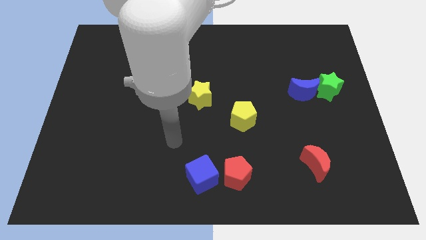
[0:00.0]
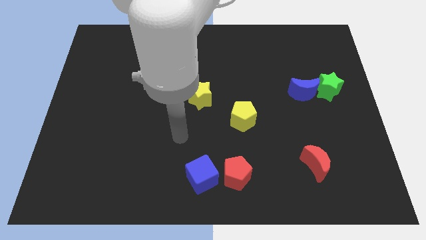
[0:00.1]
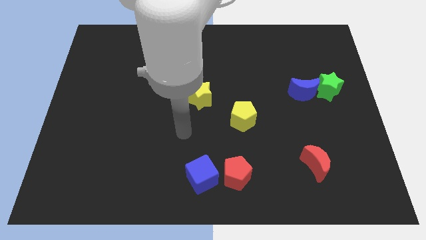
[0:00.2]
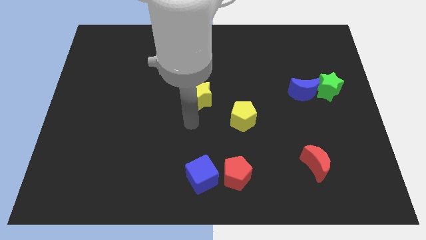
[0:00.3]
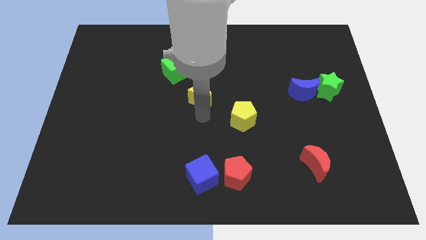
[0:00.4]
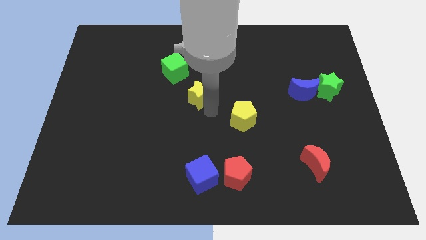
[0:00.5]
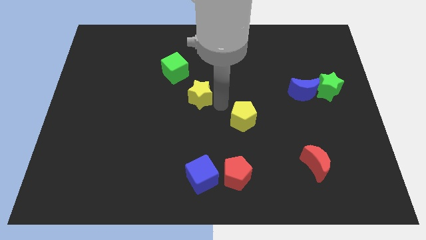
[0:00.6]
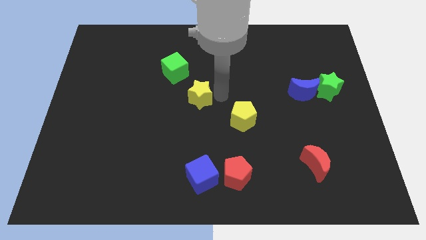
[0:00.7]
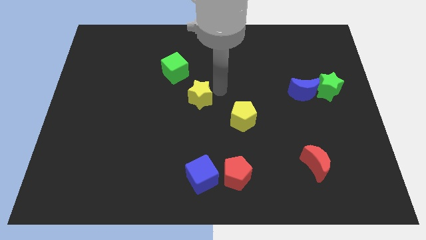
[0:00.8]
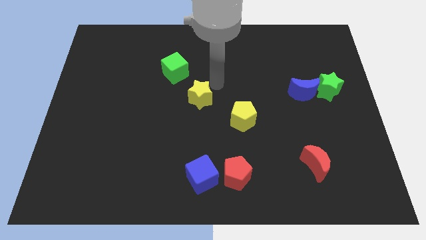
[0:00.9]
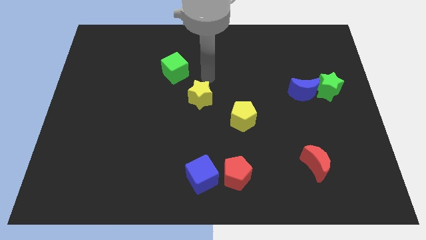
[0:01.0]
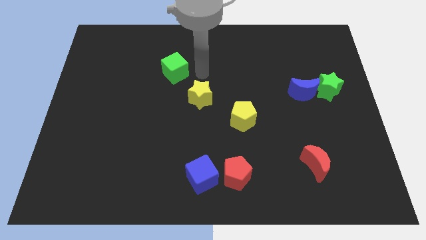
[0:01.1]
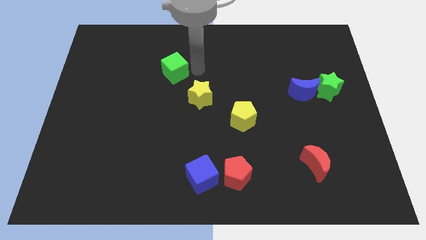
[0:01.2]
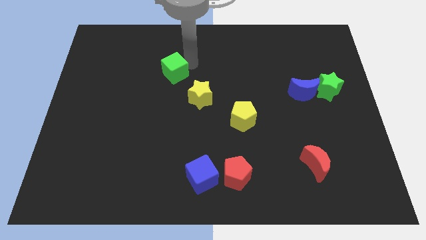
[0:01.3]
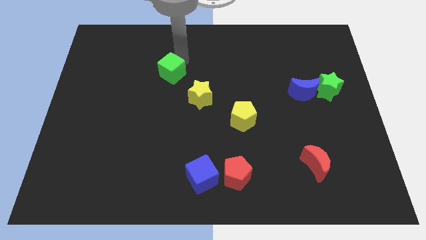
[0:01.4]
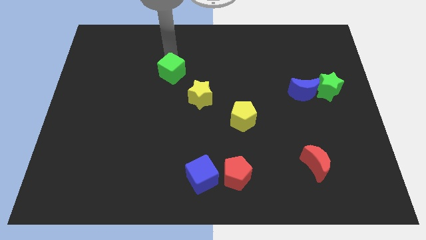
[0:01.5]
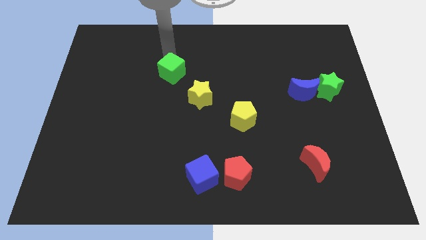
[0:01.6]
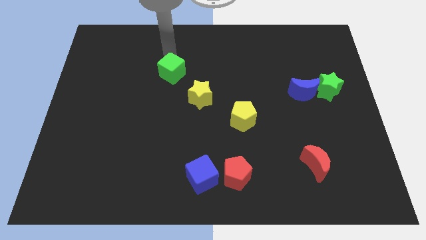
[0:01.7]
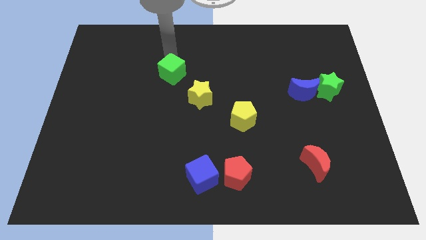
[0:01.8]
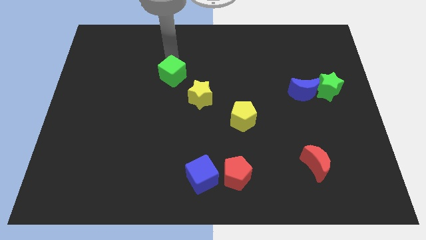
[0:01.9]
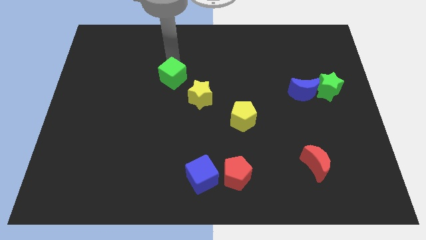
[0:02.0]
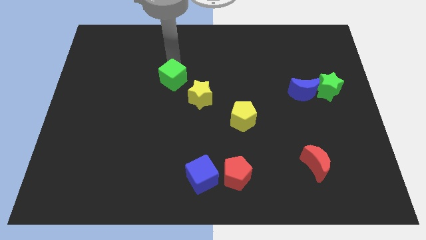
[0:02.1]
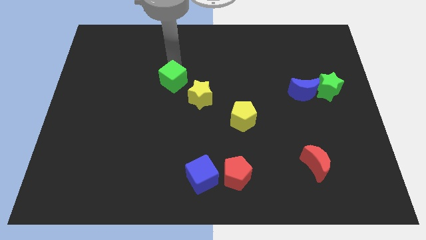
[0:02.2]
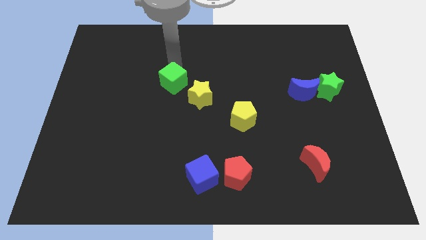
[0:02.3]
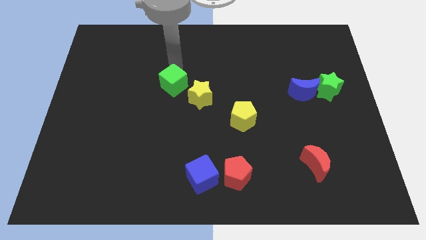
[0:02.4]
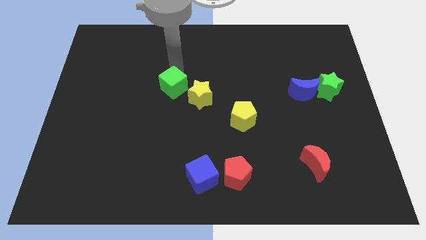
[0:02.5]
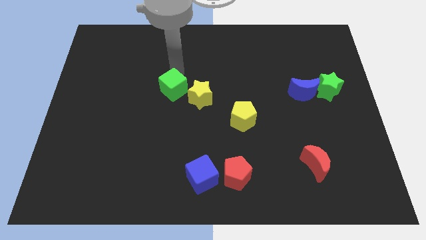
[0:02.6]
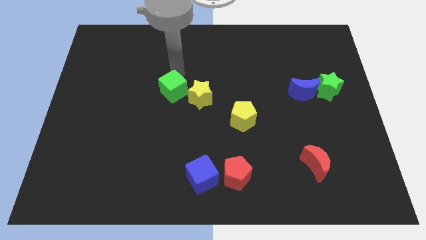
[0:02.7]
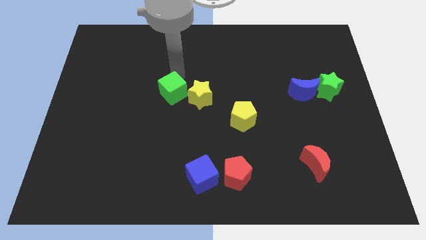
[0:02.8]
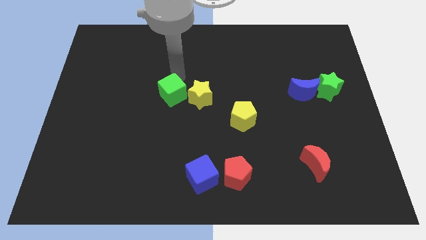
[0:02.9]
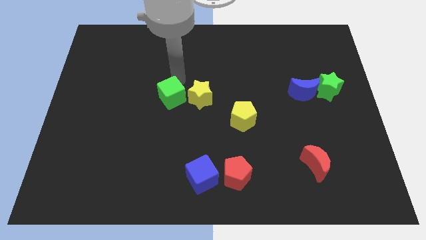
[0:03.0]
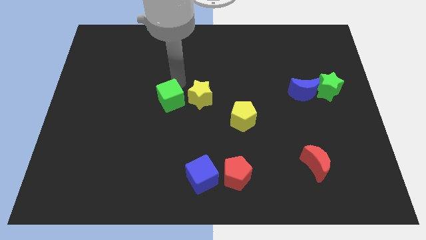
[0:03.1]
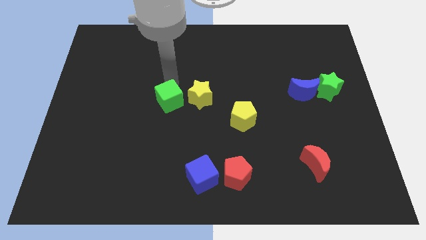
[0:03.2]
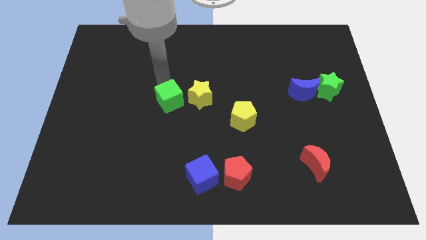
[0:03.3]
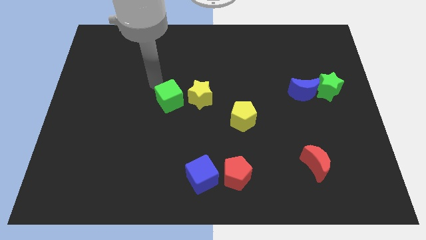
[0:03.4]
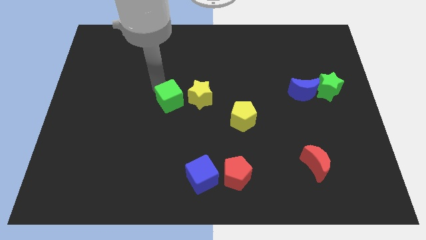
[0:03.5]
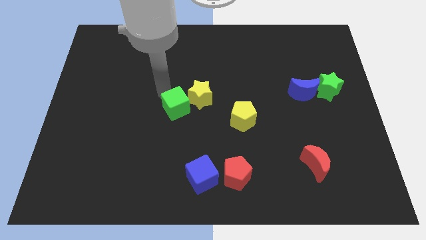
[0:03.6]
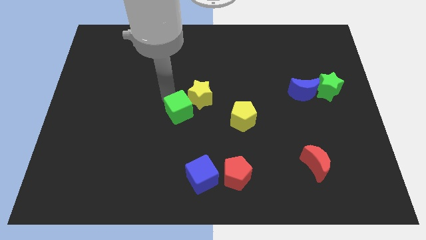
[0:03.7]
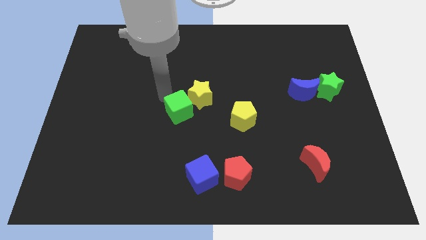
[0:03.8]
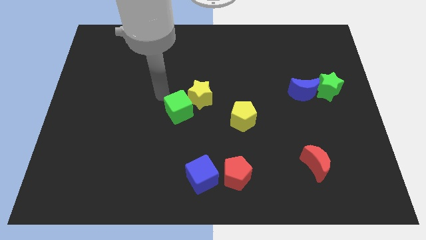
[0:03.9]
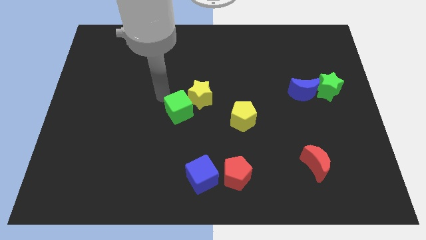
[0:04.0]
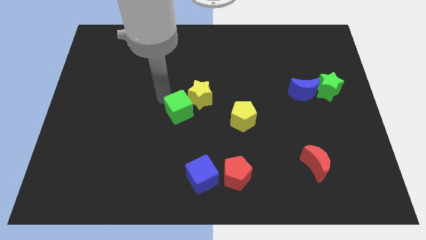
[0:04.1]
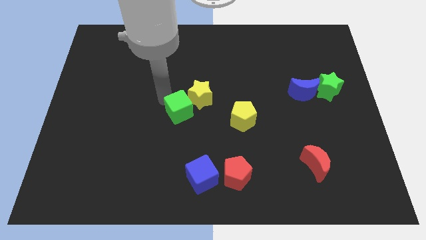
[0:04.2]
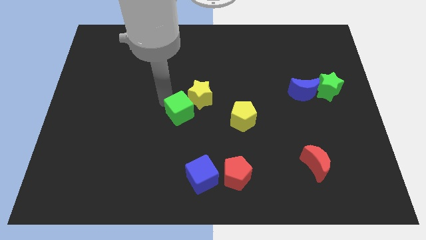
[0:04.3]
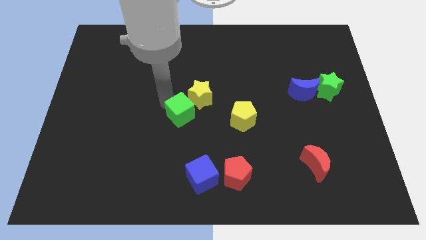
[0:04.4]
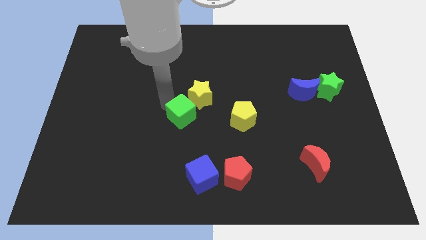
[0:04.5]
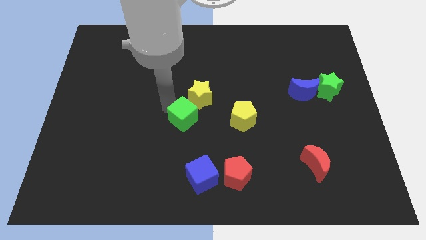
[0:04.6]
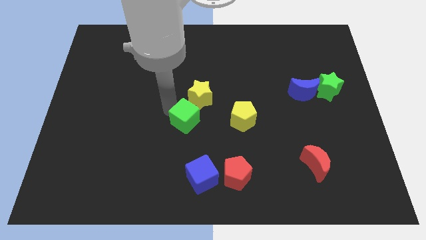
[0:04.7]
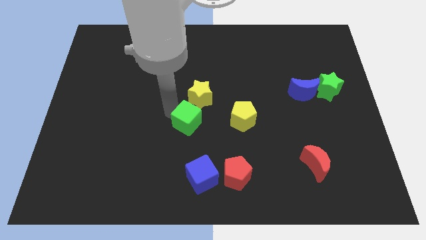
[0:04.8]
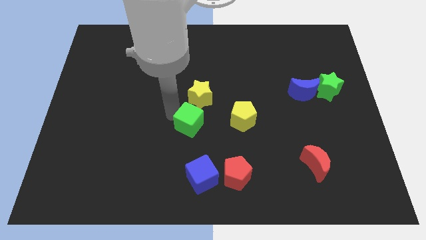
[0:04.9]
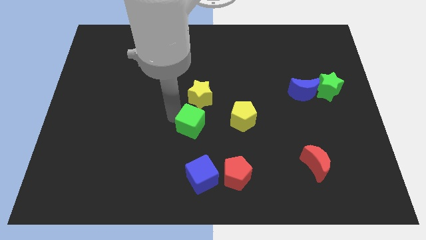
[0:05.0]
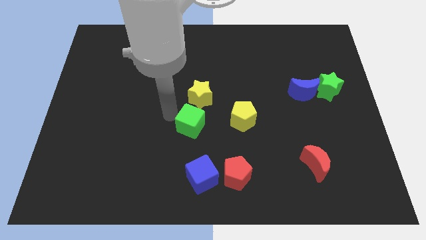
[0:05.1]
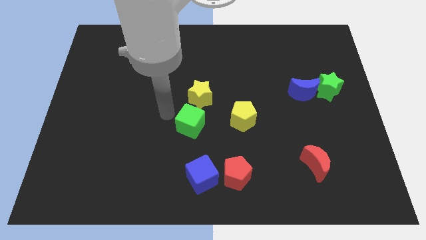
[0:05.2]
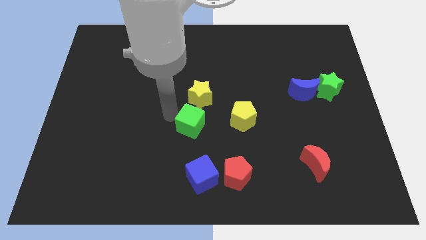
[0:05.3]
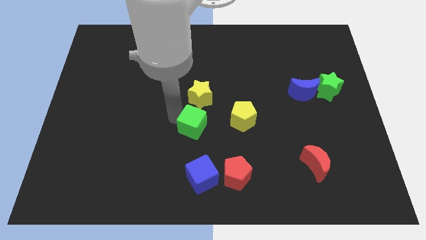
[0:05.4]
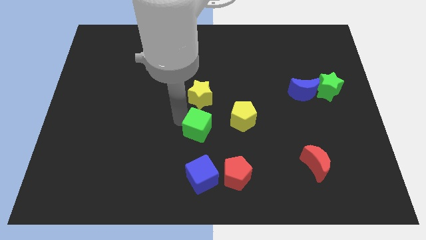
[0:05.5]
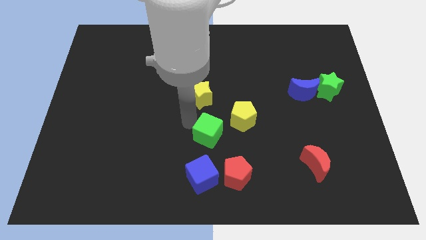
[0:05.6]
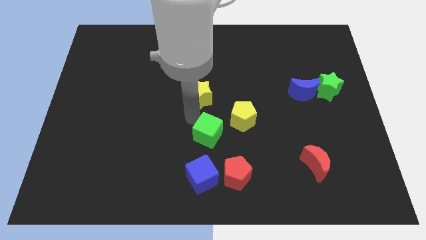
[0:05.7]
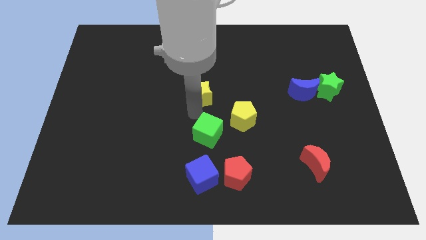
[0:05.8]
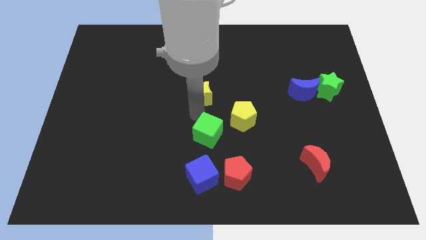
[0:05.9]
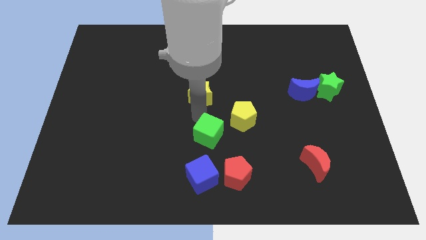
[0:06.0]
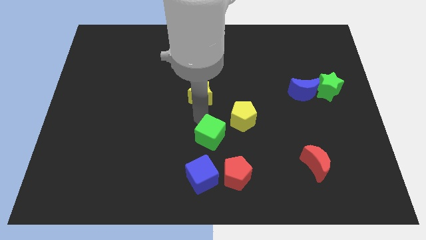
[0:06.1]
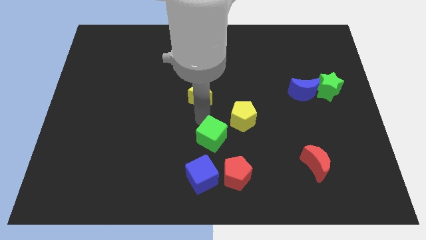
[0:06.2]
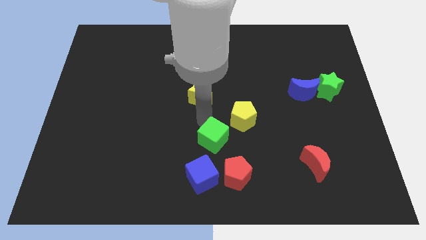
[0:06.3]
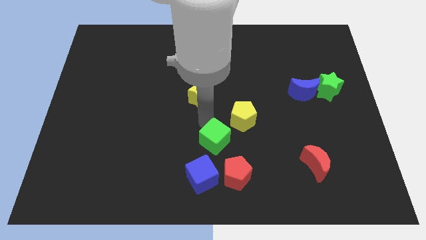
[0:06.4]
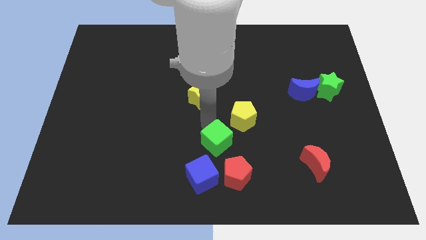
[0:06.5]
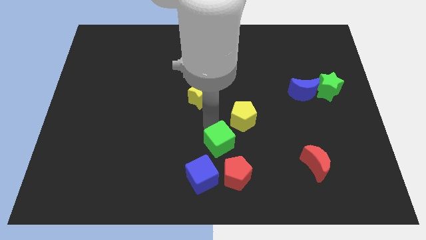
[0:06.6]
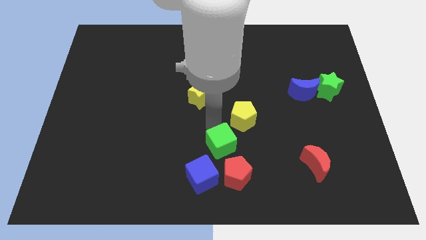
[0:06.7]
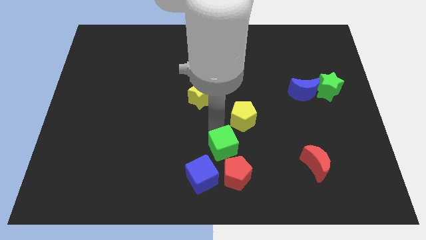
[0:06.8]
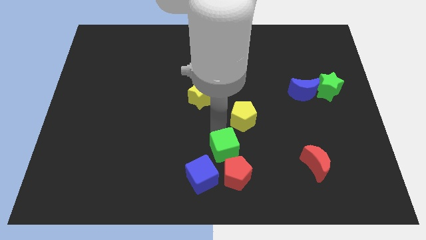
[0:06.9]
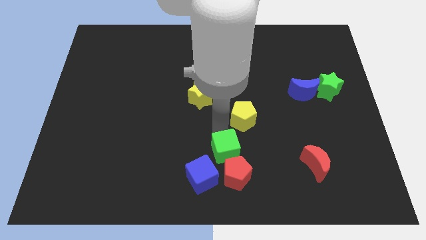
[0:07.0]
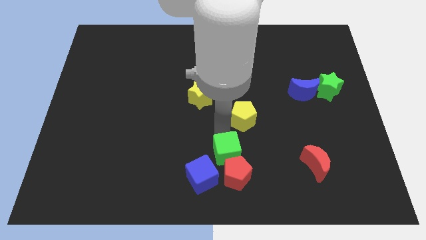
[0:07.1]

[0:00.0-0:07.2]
move the green cube towards the red pentagon
